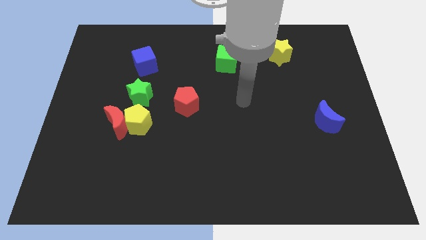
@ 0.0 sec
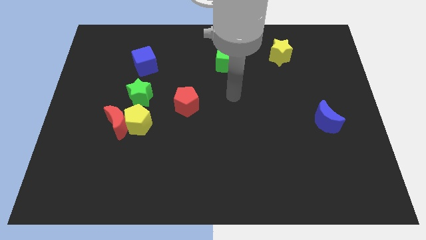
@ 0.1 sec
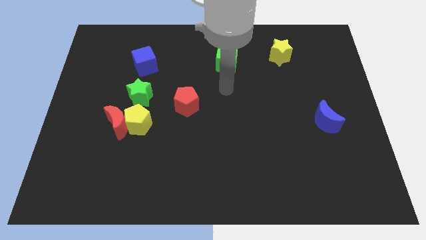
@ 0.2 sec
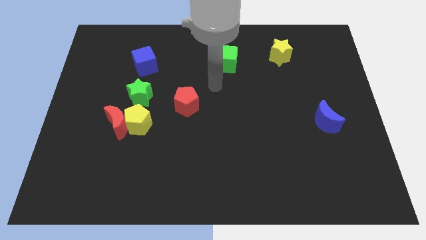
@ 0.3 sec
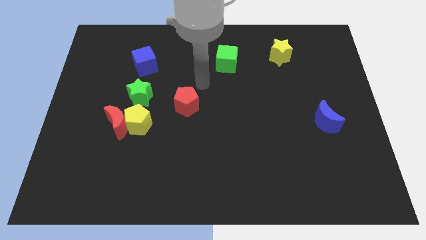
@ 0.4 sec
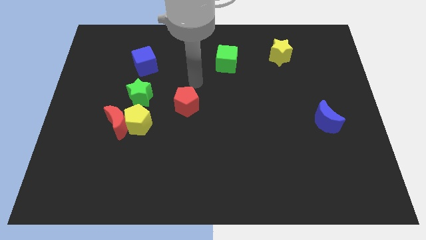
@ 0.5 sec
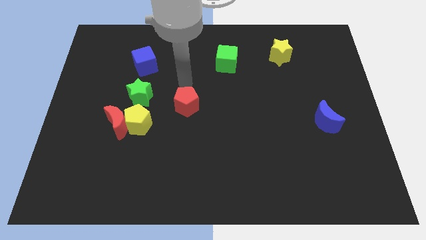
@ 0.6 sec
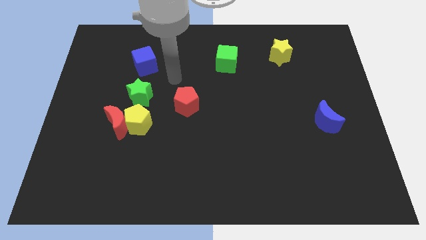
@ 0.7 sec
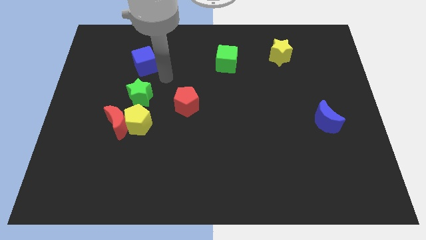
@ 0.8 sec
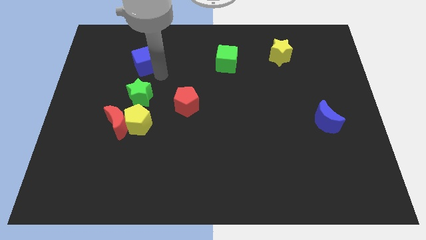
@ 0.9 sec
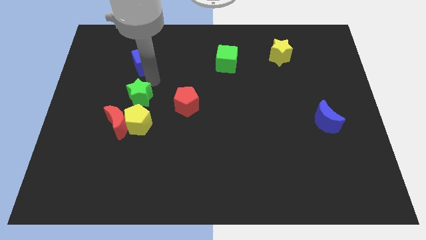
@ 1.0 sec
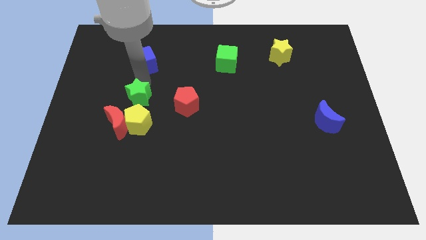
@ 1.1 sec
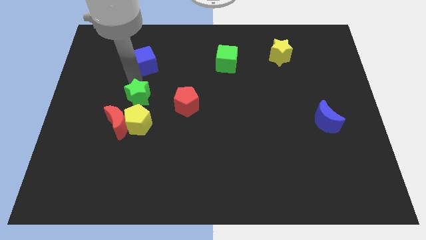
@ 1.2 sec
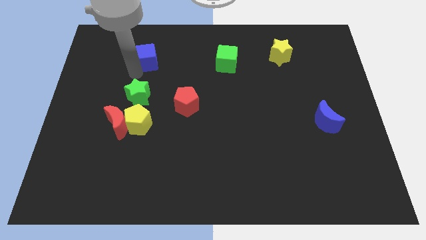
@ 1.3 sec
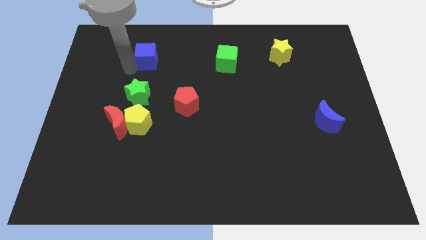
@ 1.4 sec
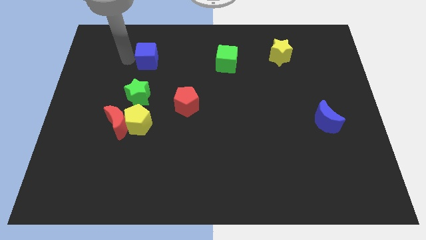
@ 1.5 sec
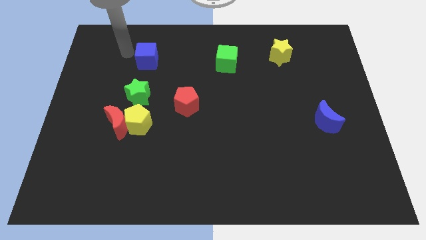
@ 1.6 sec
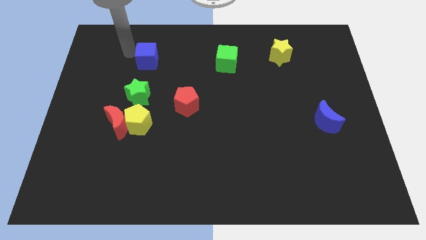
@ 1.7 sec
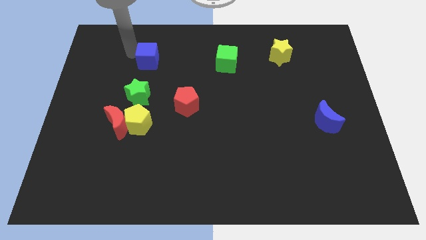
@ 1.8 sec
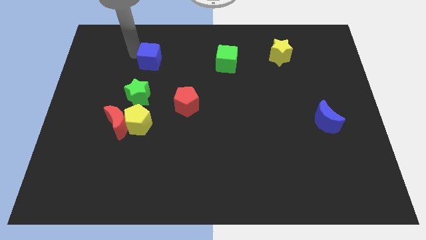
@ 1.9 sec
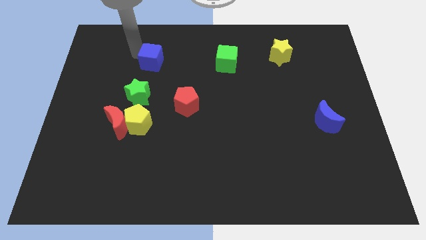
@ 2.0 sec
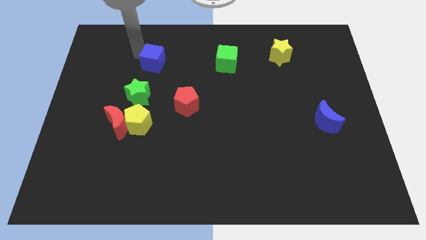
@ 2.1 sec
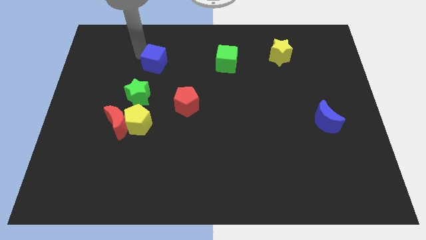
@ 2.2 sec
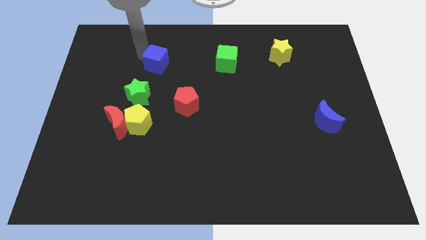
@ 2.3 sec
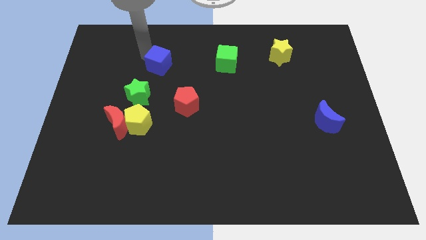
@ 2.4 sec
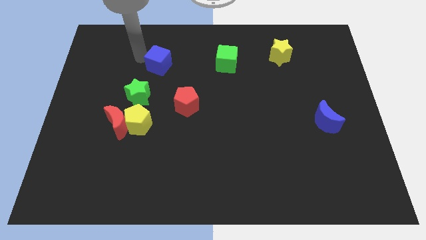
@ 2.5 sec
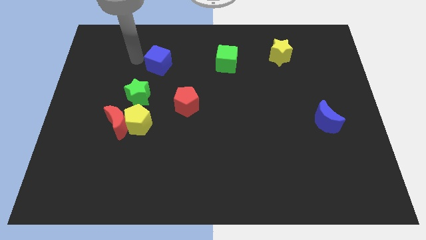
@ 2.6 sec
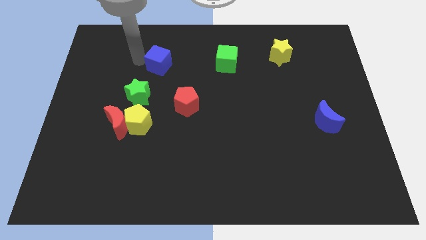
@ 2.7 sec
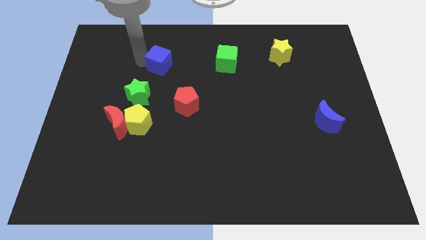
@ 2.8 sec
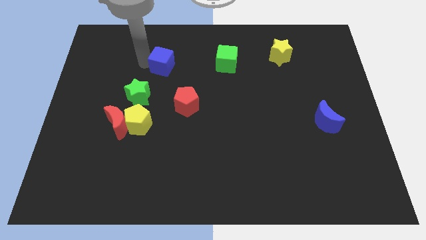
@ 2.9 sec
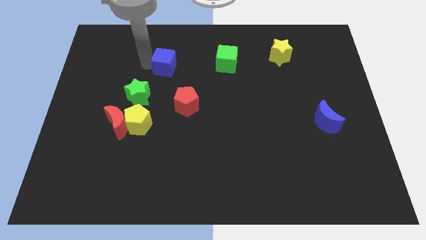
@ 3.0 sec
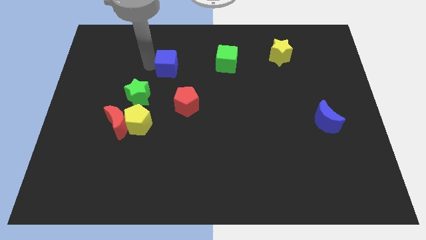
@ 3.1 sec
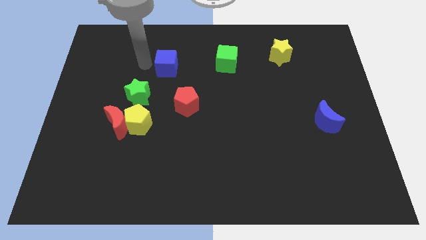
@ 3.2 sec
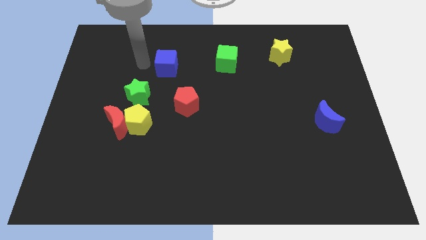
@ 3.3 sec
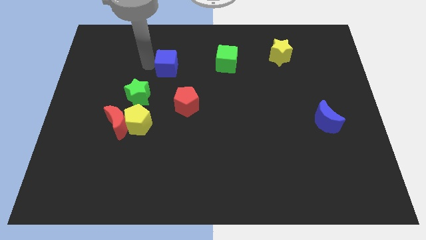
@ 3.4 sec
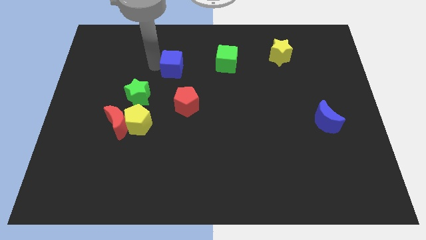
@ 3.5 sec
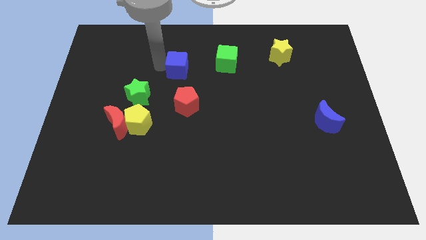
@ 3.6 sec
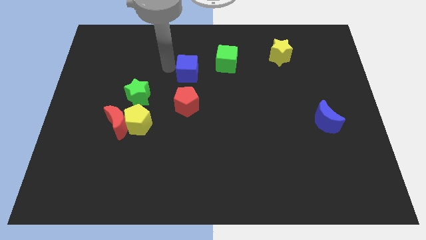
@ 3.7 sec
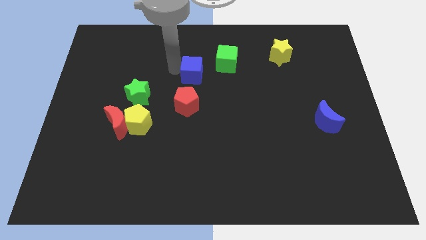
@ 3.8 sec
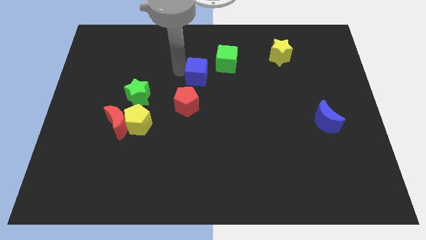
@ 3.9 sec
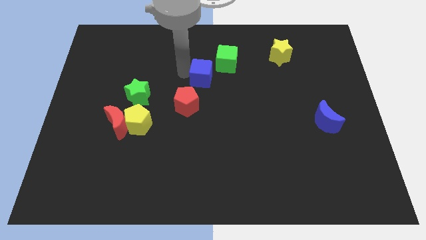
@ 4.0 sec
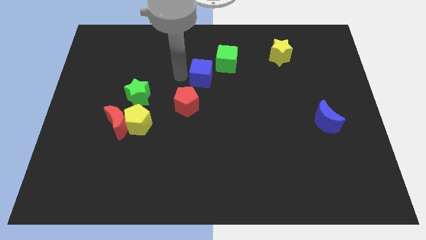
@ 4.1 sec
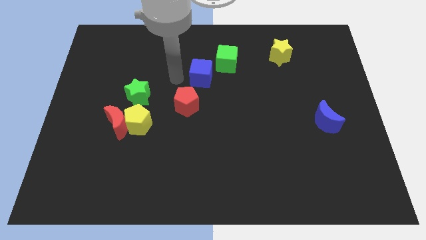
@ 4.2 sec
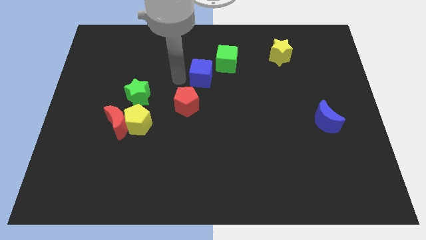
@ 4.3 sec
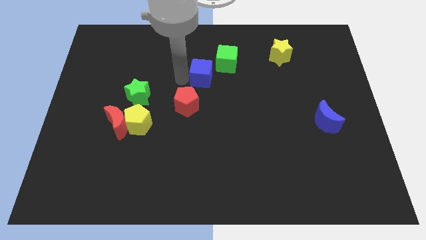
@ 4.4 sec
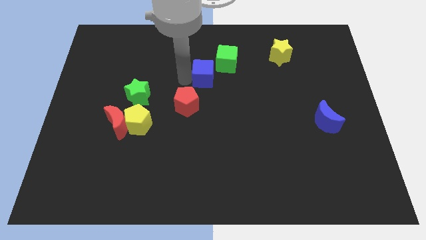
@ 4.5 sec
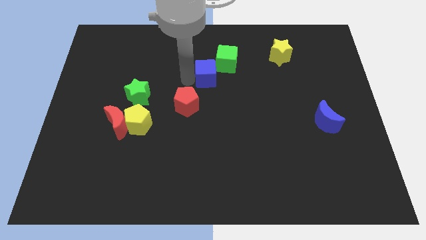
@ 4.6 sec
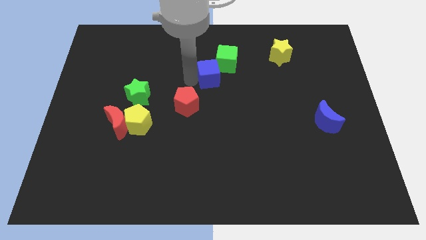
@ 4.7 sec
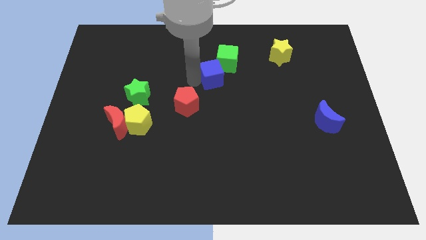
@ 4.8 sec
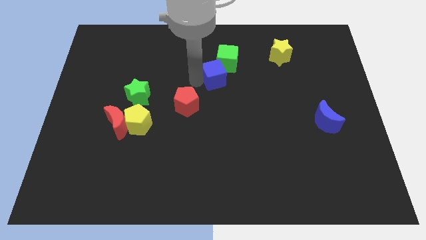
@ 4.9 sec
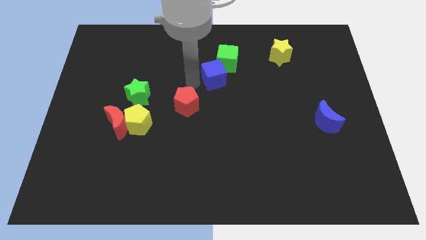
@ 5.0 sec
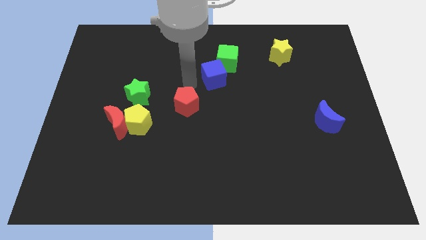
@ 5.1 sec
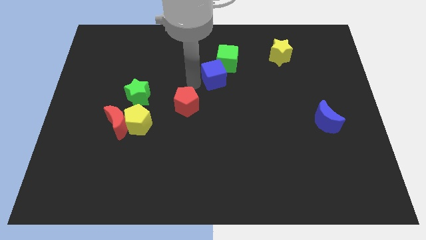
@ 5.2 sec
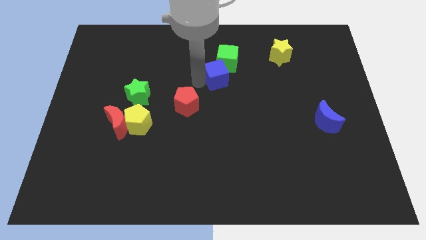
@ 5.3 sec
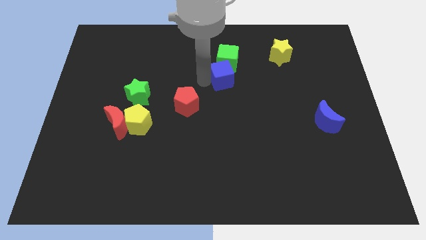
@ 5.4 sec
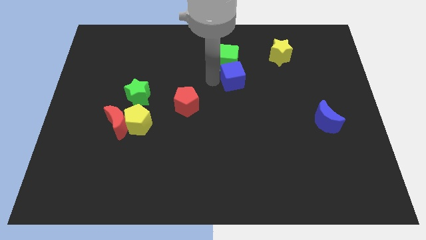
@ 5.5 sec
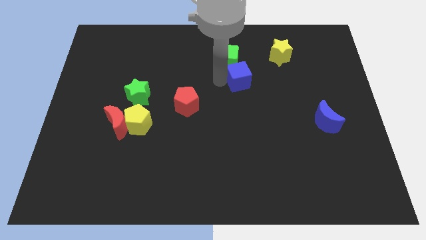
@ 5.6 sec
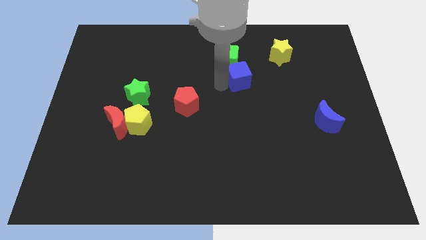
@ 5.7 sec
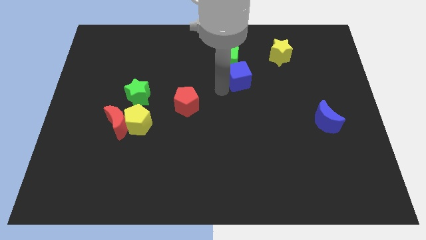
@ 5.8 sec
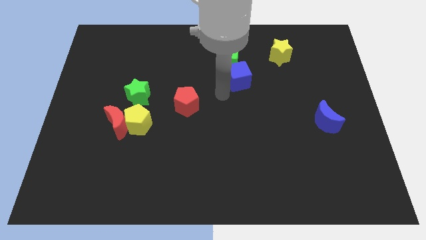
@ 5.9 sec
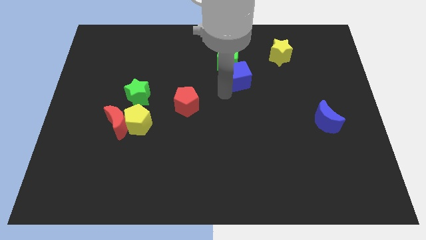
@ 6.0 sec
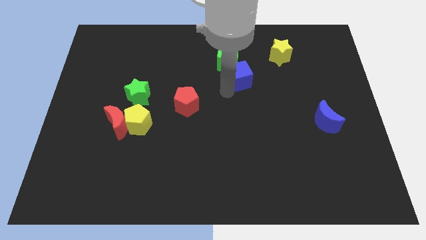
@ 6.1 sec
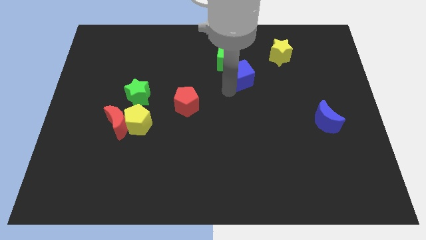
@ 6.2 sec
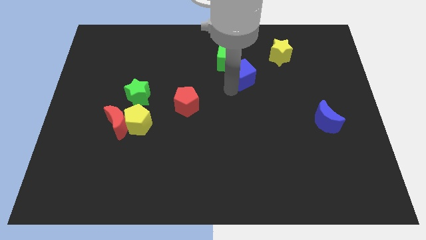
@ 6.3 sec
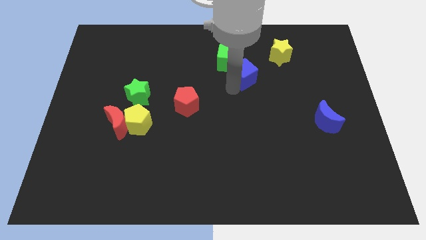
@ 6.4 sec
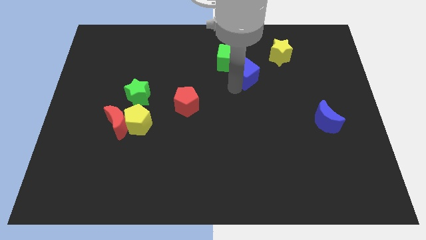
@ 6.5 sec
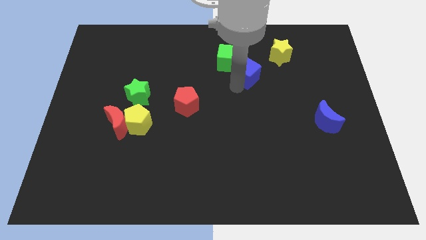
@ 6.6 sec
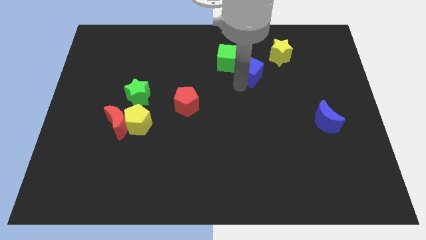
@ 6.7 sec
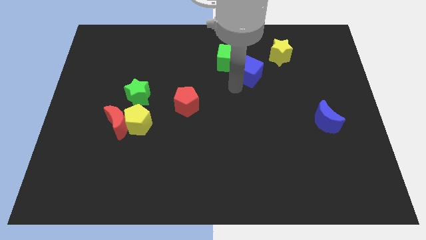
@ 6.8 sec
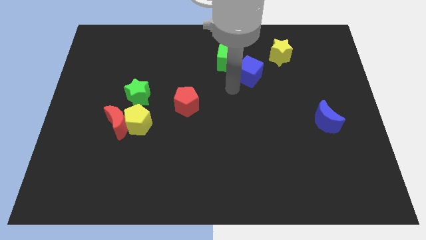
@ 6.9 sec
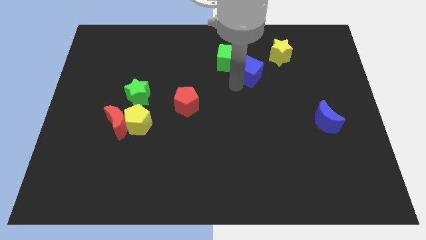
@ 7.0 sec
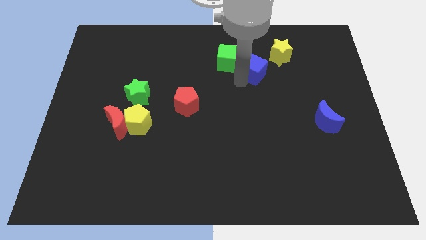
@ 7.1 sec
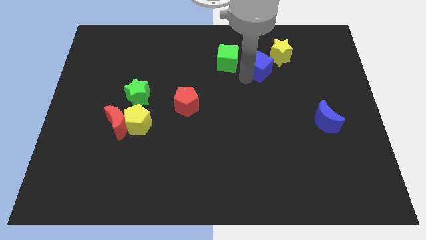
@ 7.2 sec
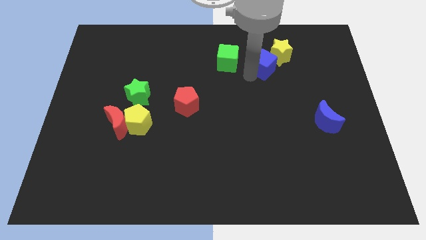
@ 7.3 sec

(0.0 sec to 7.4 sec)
push the blue cube next to the yellow star
